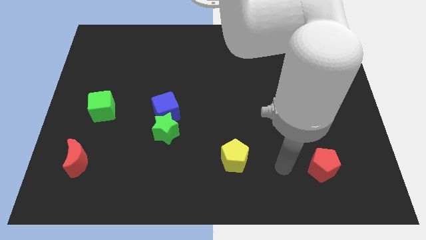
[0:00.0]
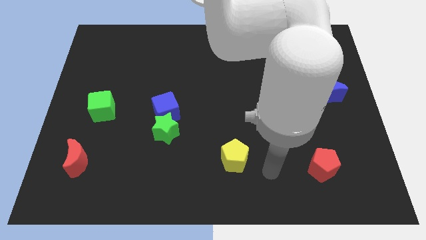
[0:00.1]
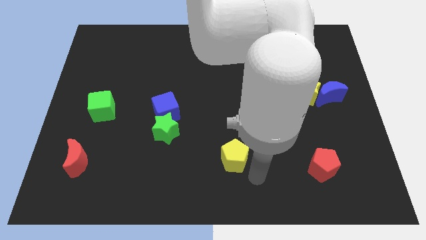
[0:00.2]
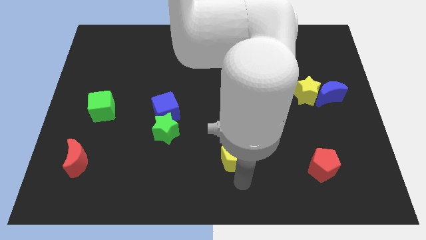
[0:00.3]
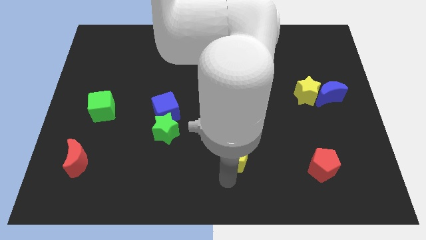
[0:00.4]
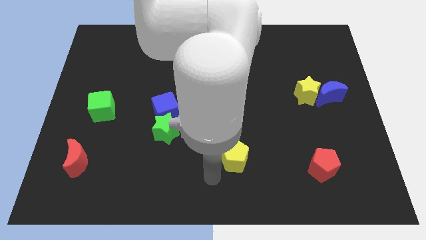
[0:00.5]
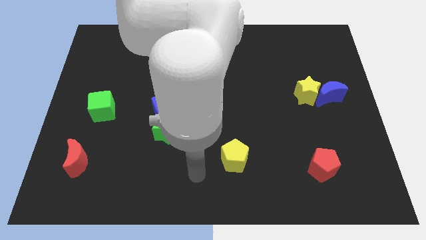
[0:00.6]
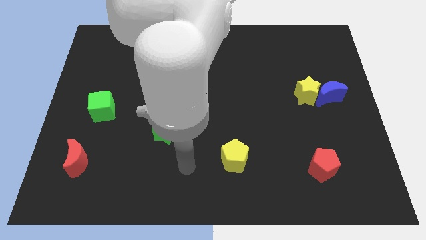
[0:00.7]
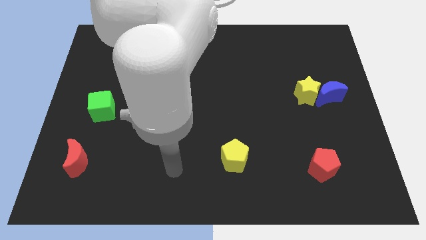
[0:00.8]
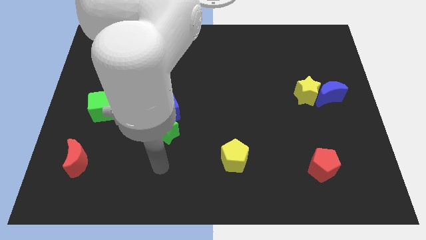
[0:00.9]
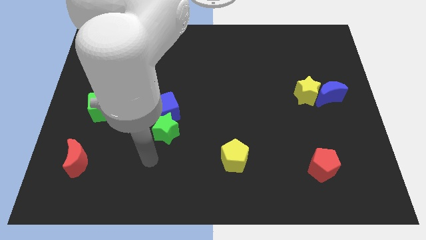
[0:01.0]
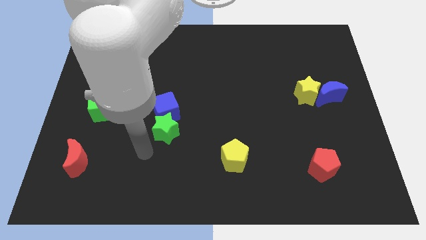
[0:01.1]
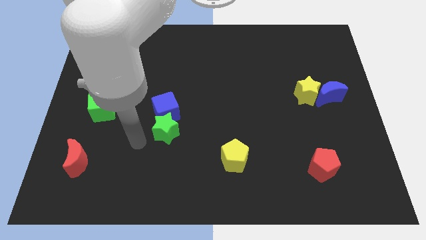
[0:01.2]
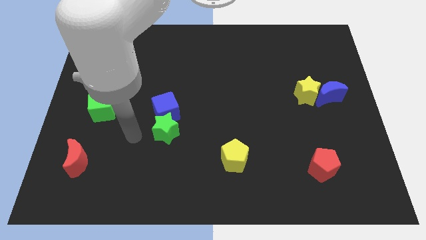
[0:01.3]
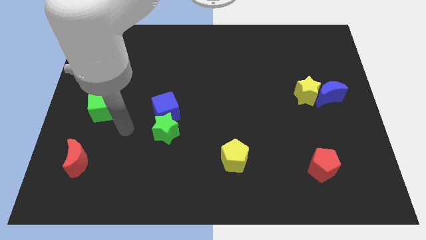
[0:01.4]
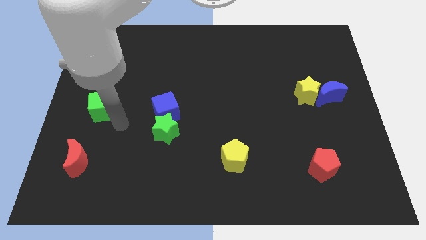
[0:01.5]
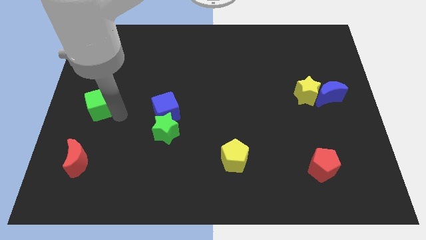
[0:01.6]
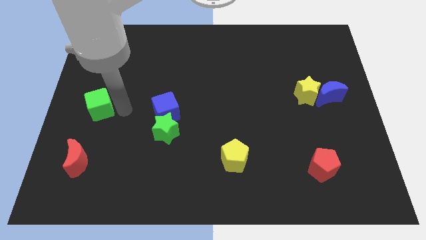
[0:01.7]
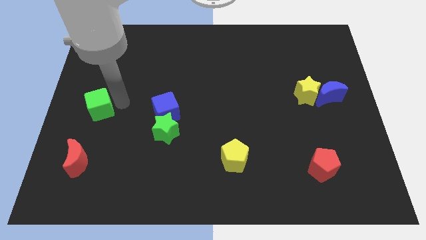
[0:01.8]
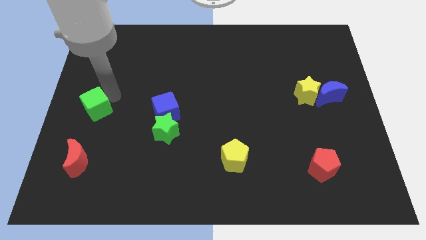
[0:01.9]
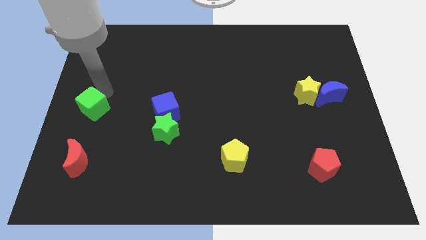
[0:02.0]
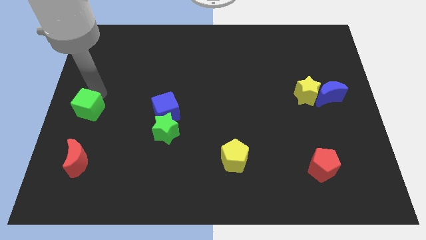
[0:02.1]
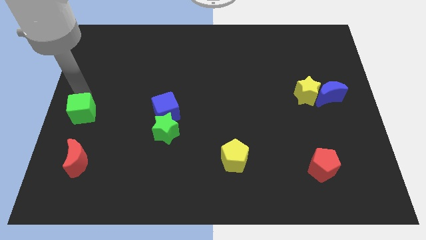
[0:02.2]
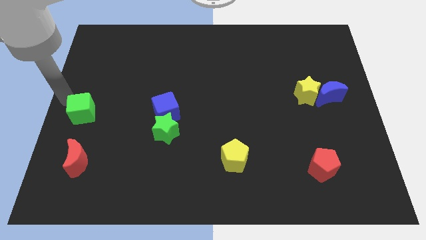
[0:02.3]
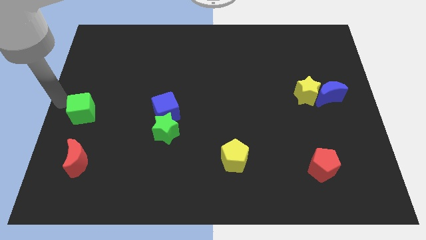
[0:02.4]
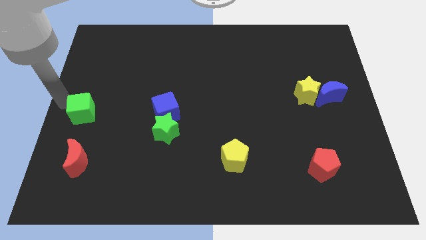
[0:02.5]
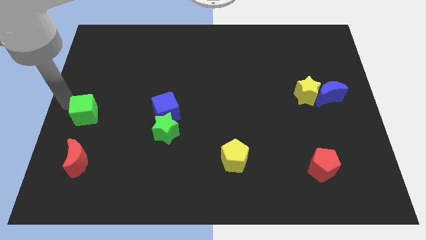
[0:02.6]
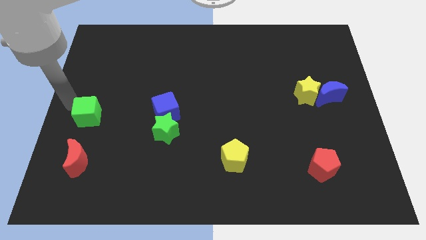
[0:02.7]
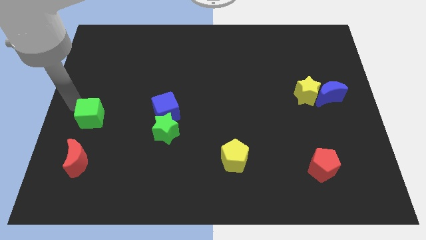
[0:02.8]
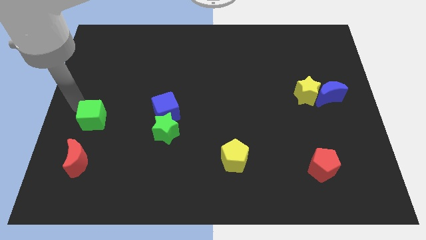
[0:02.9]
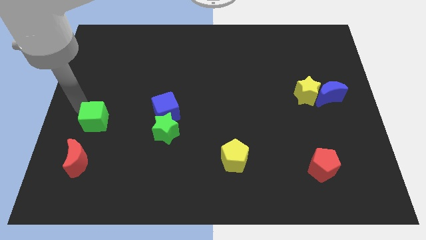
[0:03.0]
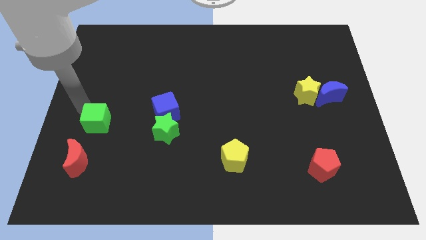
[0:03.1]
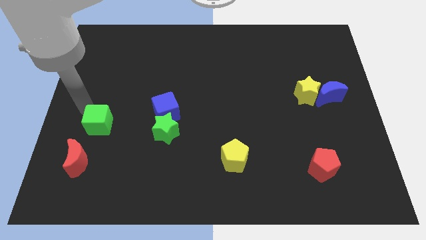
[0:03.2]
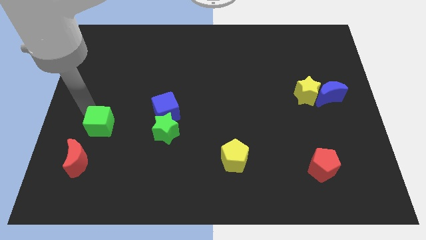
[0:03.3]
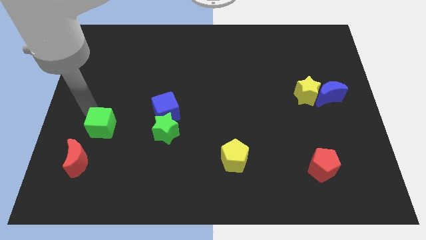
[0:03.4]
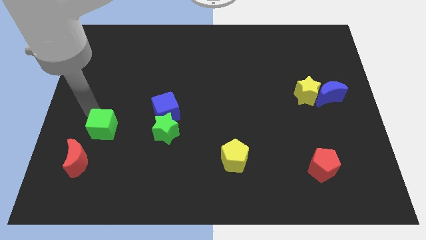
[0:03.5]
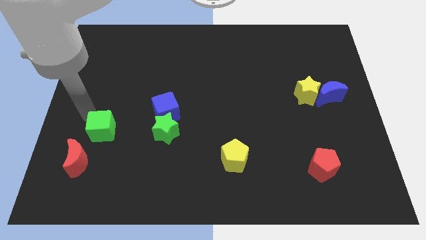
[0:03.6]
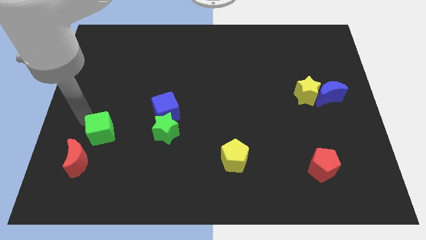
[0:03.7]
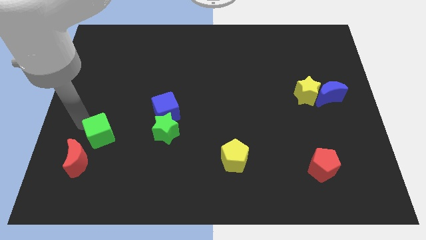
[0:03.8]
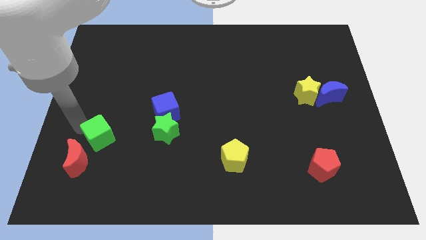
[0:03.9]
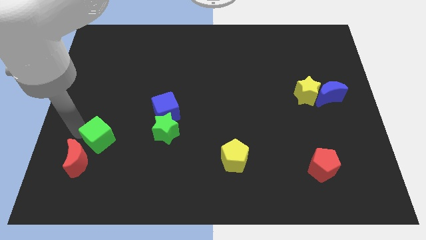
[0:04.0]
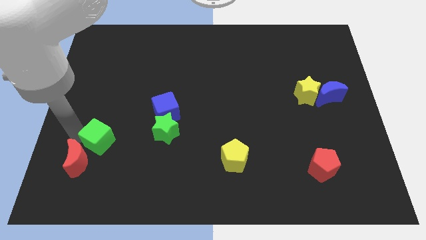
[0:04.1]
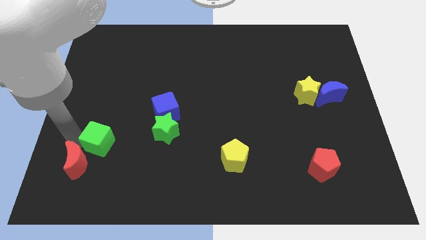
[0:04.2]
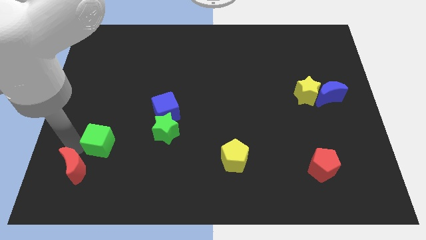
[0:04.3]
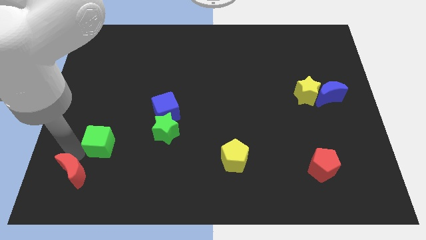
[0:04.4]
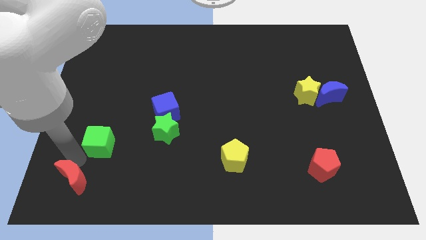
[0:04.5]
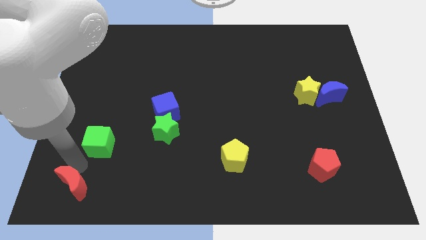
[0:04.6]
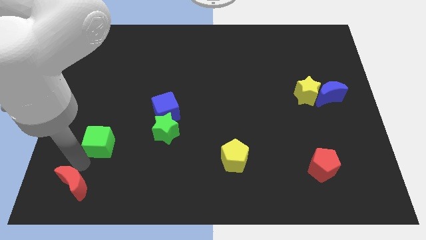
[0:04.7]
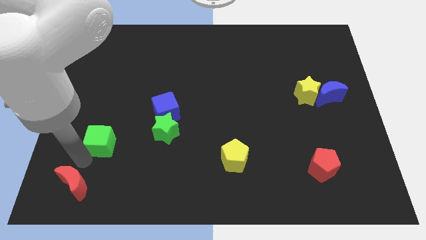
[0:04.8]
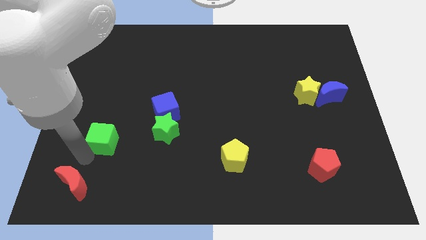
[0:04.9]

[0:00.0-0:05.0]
push the green cube diagonally down and to the right a little

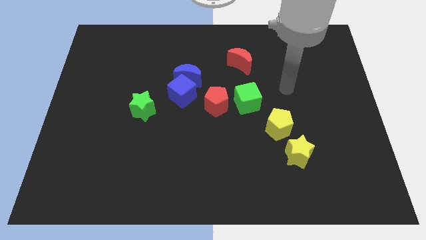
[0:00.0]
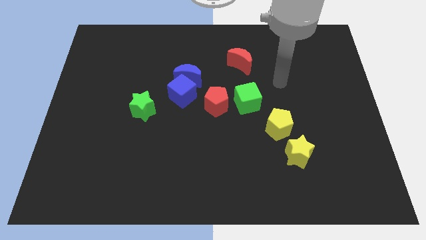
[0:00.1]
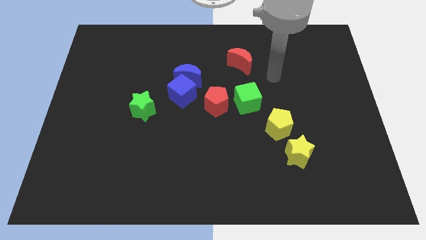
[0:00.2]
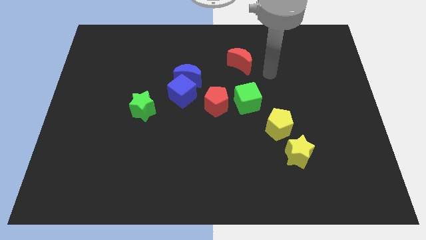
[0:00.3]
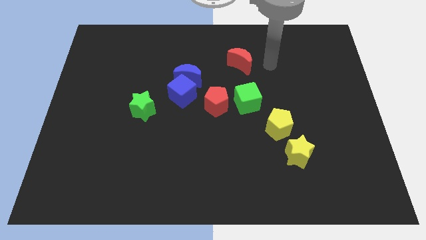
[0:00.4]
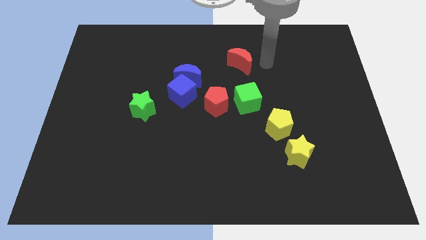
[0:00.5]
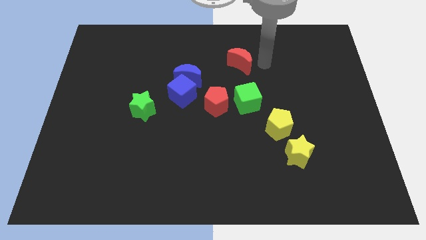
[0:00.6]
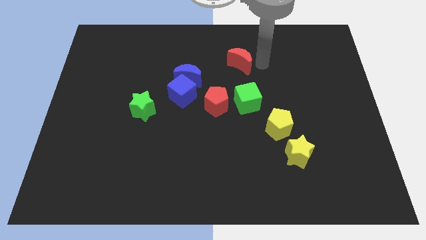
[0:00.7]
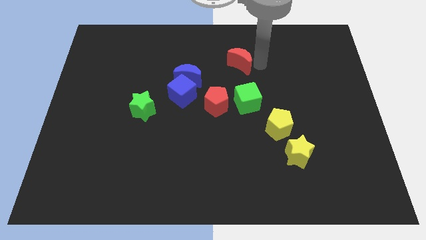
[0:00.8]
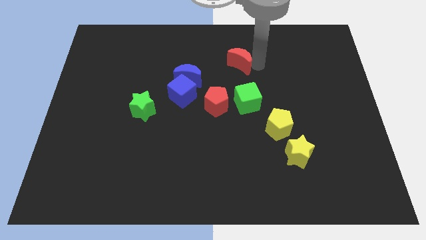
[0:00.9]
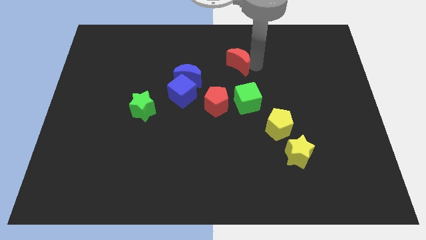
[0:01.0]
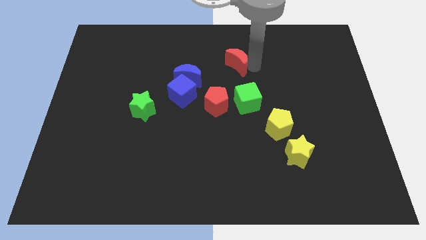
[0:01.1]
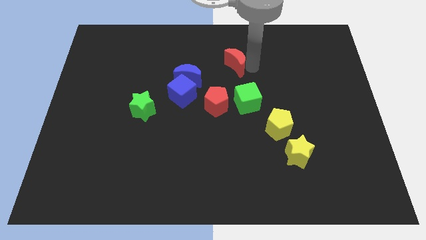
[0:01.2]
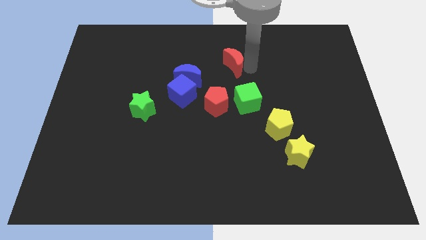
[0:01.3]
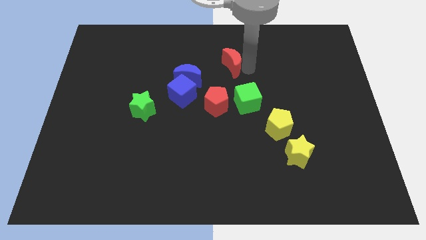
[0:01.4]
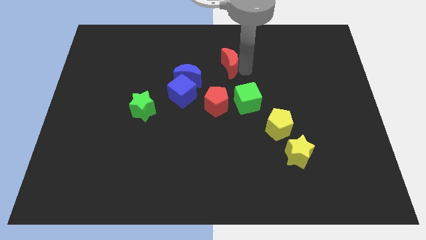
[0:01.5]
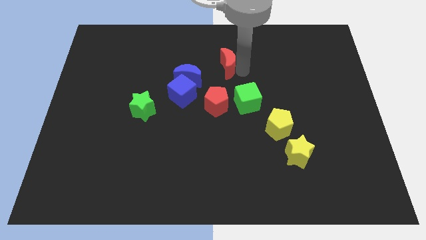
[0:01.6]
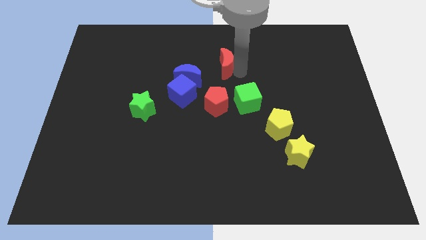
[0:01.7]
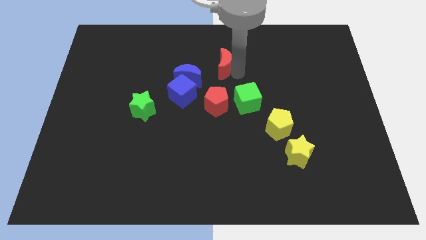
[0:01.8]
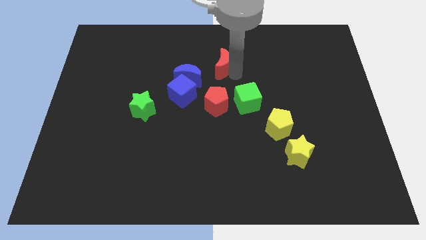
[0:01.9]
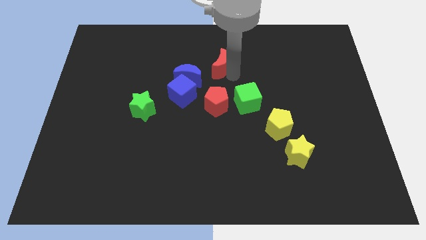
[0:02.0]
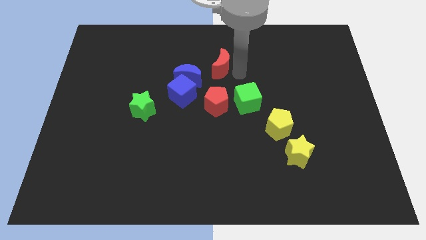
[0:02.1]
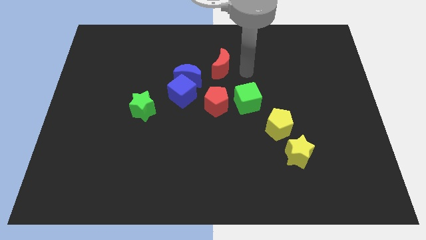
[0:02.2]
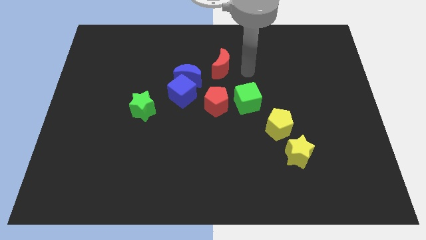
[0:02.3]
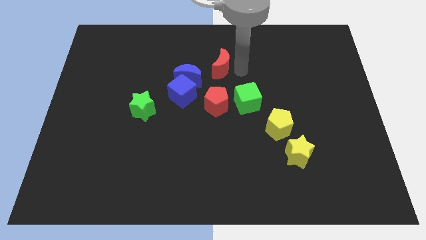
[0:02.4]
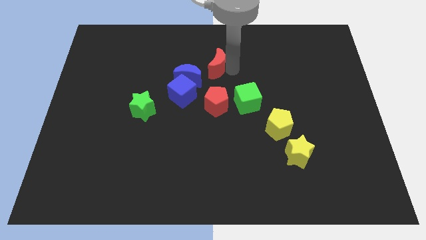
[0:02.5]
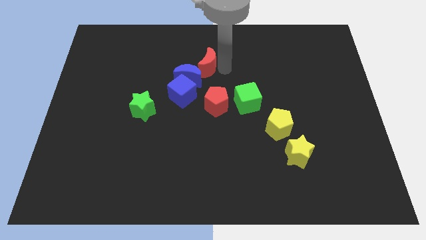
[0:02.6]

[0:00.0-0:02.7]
slide the red moon a little to the left
